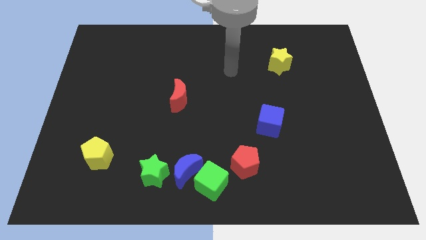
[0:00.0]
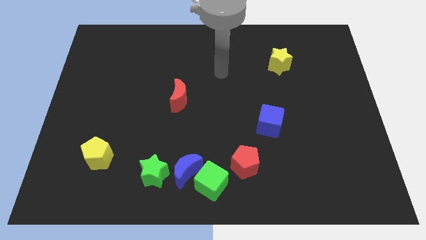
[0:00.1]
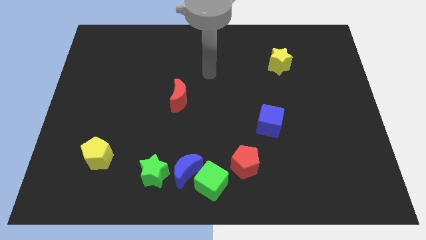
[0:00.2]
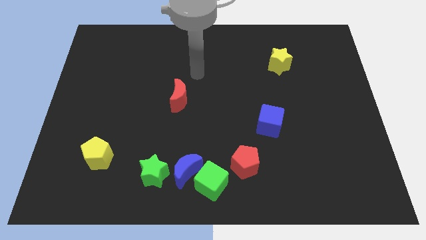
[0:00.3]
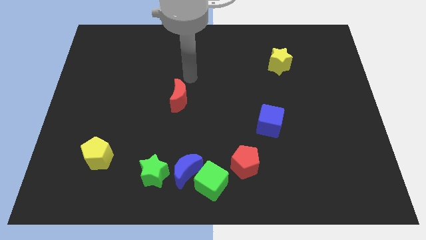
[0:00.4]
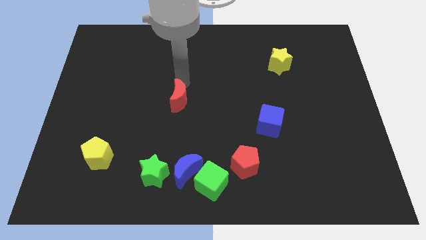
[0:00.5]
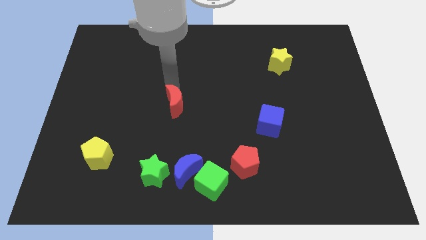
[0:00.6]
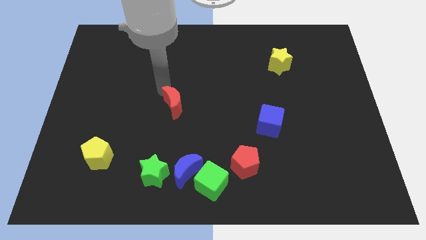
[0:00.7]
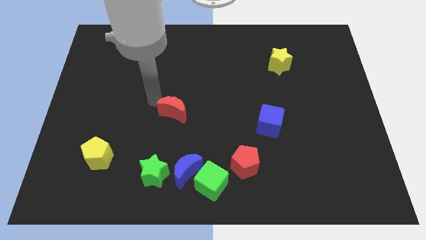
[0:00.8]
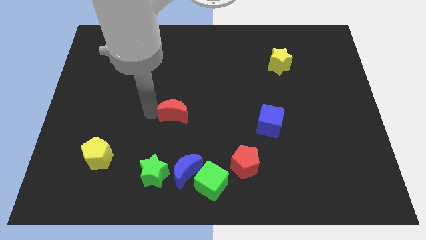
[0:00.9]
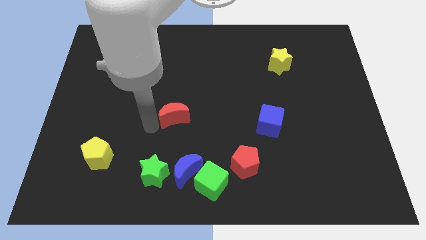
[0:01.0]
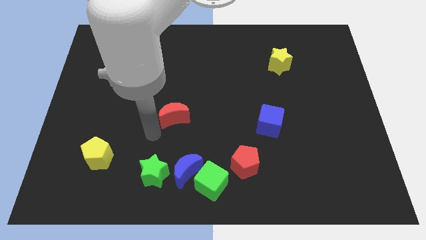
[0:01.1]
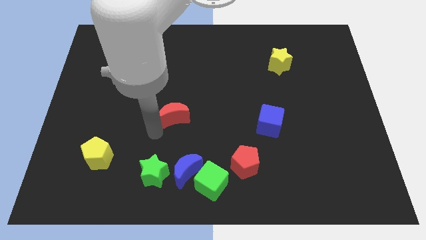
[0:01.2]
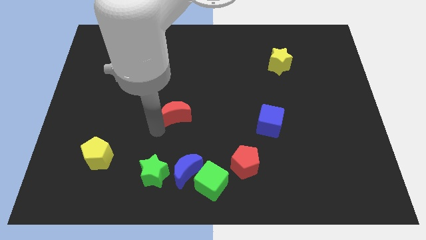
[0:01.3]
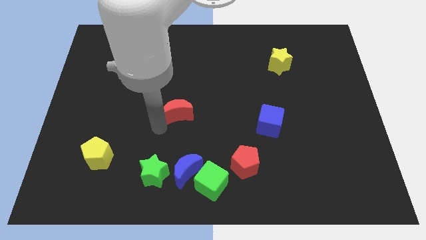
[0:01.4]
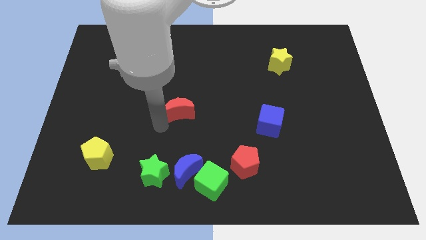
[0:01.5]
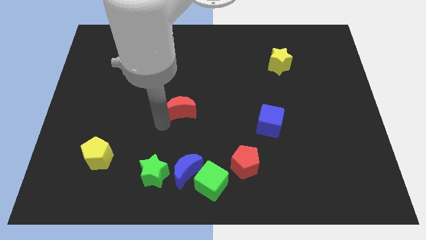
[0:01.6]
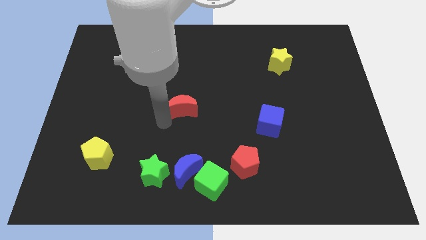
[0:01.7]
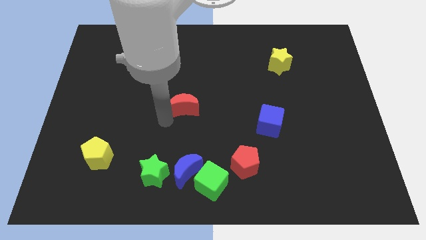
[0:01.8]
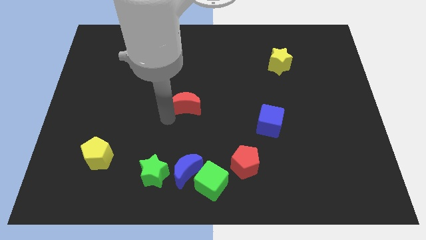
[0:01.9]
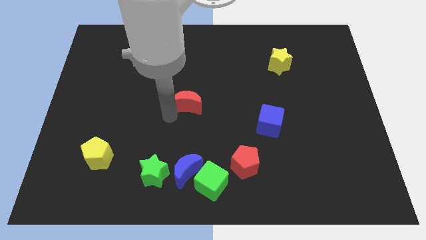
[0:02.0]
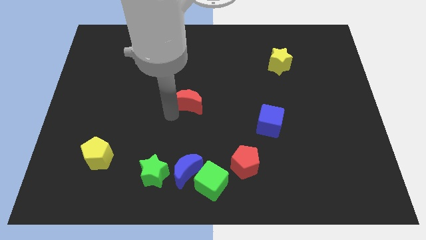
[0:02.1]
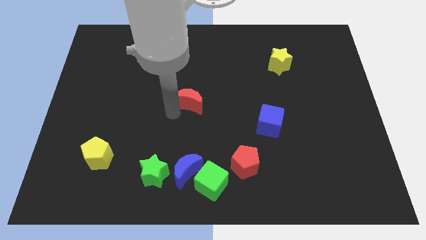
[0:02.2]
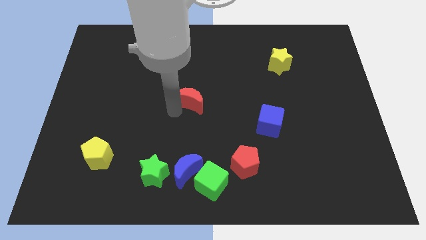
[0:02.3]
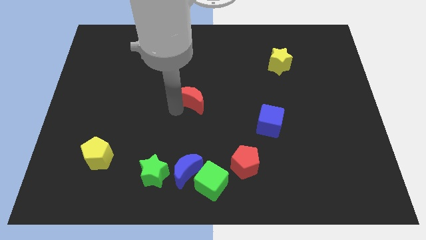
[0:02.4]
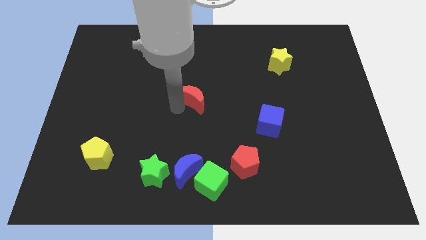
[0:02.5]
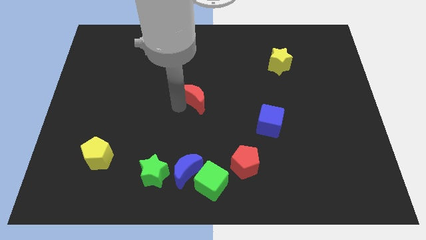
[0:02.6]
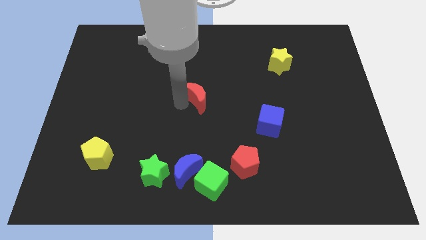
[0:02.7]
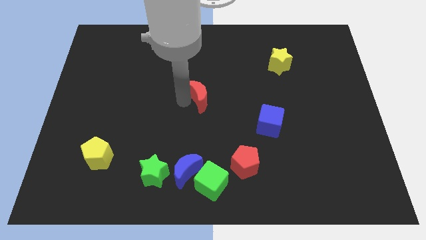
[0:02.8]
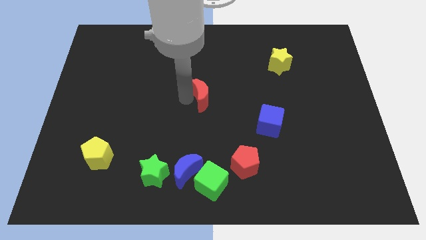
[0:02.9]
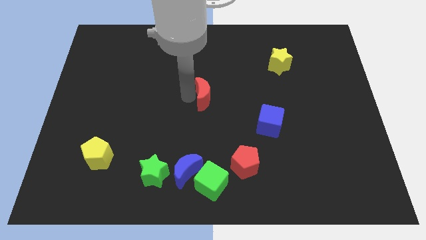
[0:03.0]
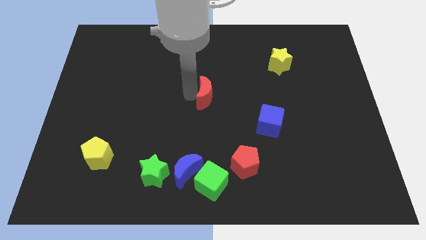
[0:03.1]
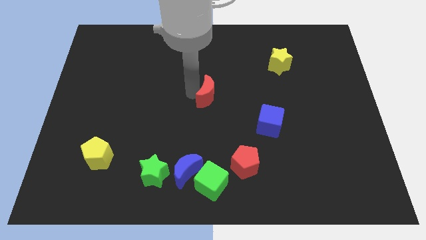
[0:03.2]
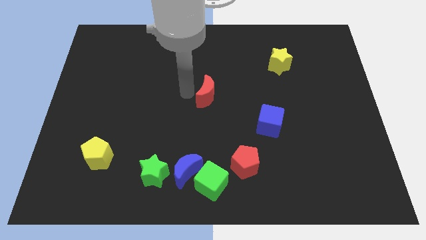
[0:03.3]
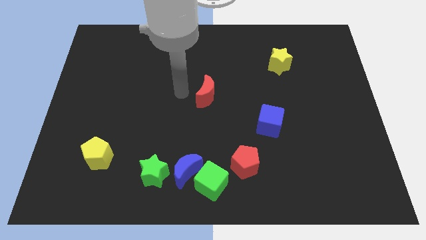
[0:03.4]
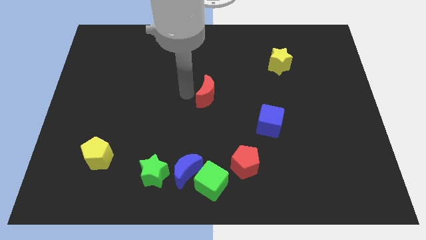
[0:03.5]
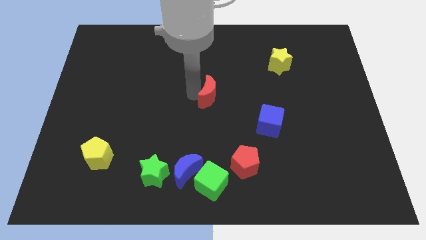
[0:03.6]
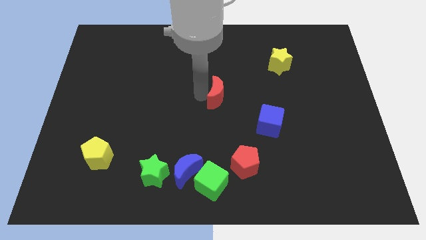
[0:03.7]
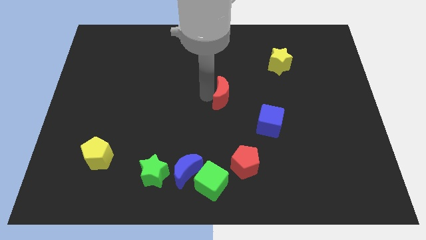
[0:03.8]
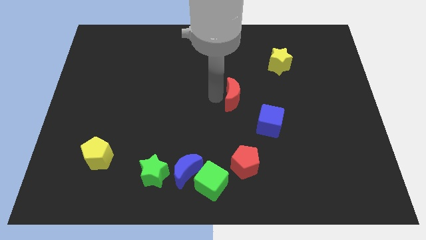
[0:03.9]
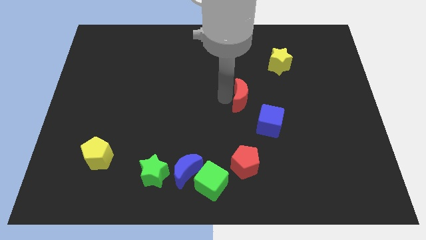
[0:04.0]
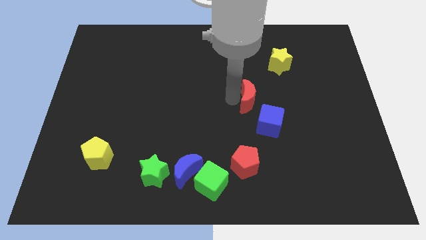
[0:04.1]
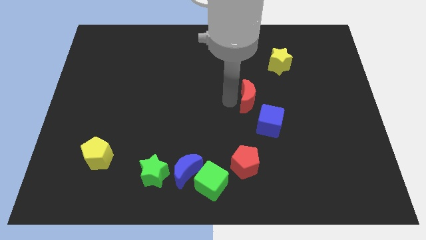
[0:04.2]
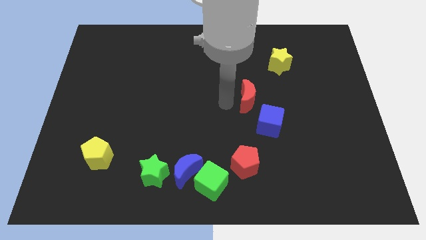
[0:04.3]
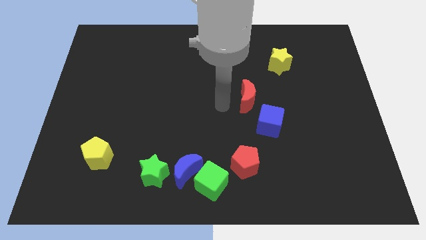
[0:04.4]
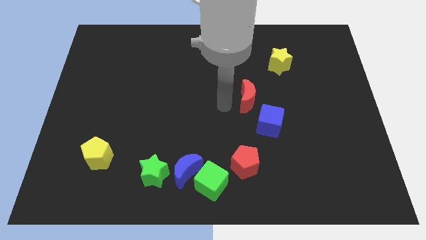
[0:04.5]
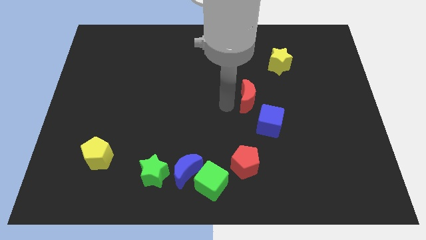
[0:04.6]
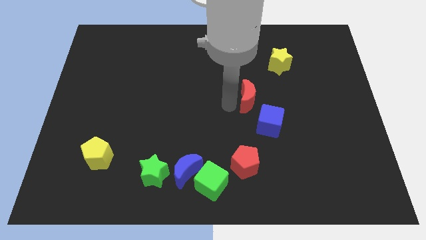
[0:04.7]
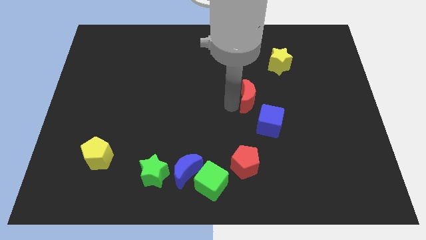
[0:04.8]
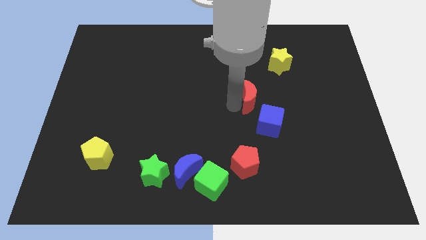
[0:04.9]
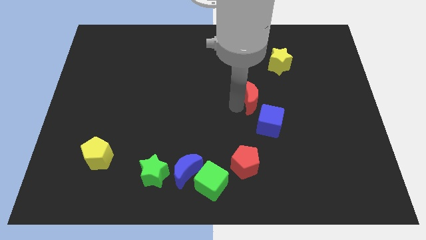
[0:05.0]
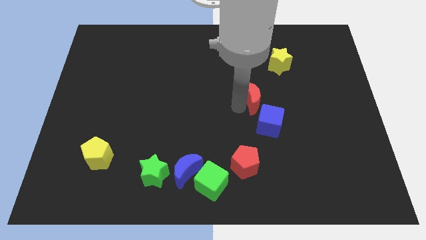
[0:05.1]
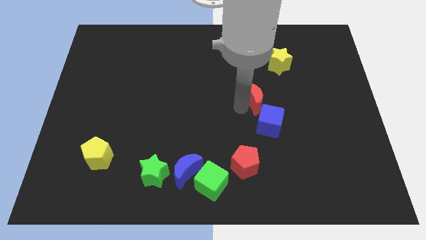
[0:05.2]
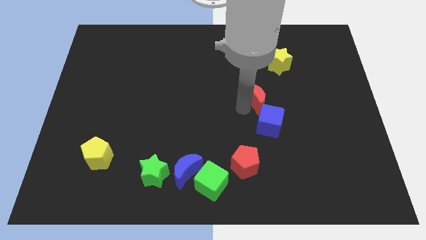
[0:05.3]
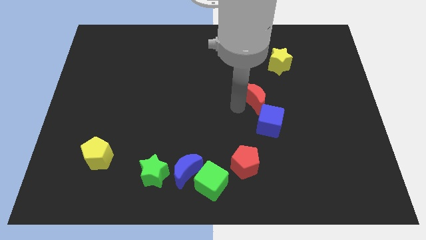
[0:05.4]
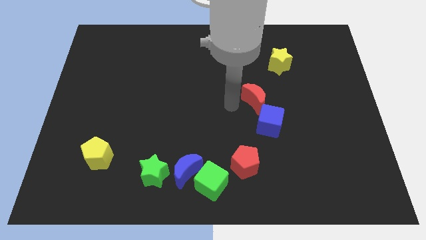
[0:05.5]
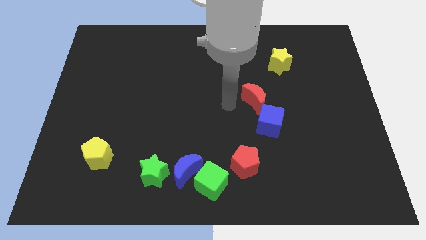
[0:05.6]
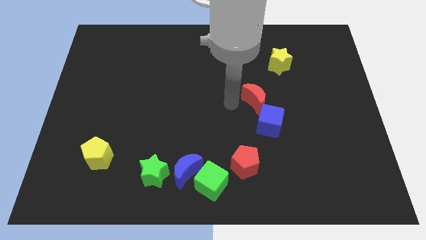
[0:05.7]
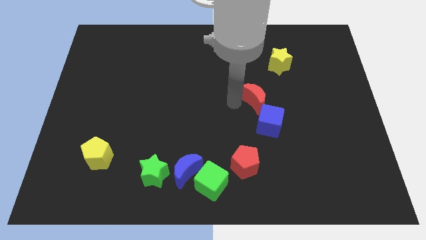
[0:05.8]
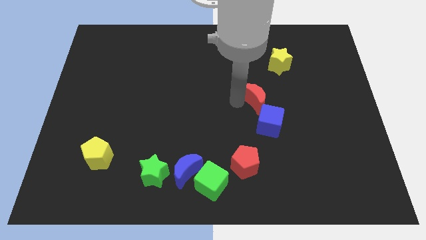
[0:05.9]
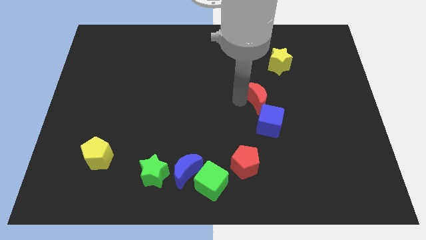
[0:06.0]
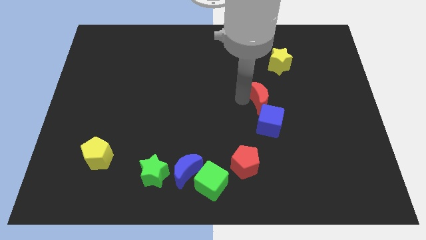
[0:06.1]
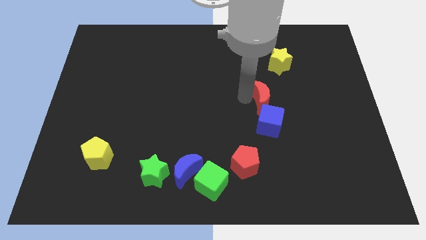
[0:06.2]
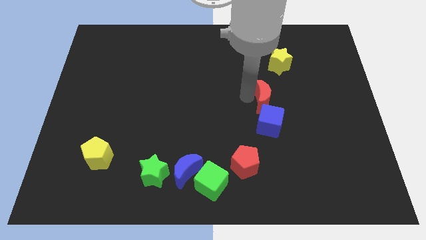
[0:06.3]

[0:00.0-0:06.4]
slide the red moon right

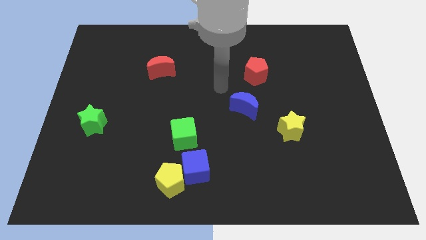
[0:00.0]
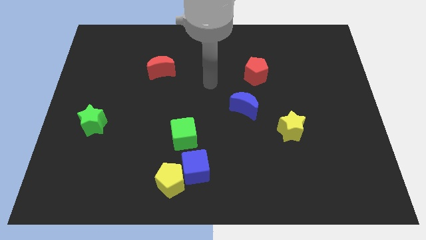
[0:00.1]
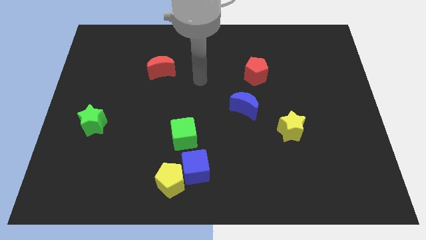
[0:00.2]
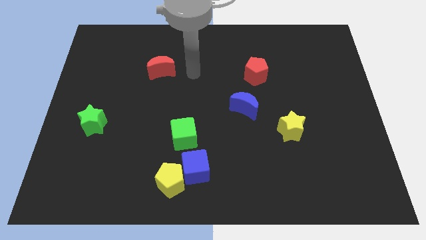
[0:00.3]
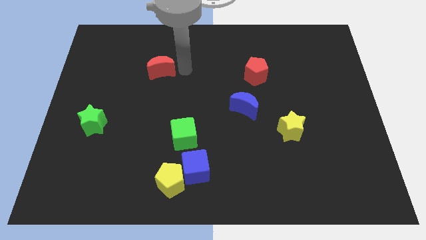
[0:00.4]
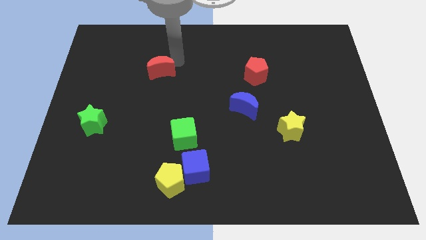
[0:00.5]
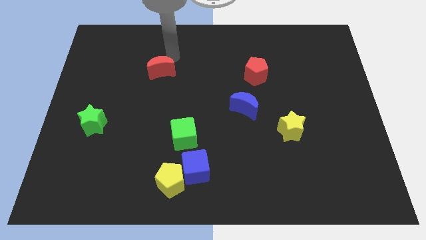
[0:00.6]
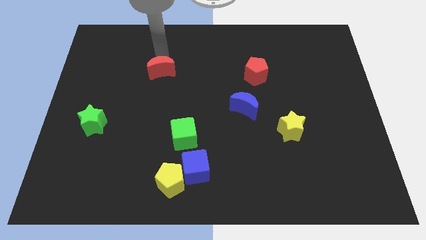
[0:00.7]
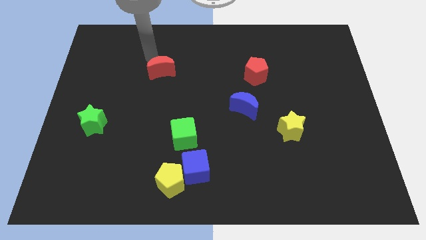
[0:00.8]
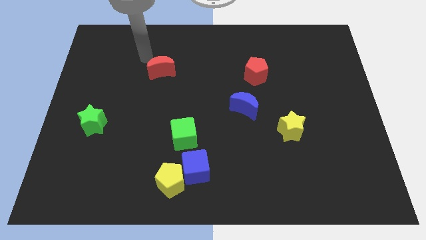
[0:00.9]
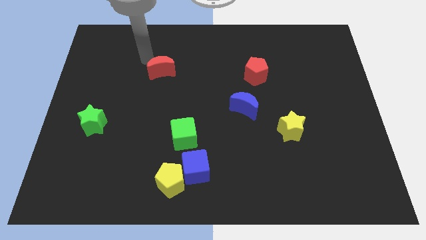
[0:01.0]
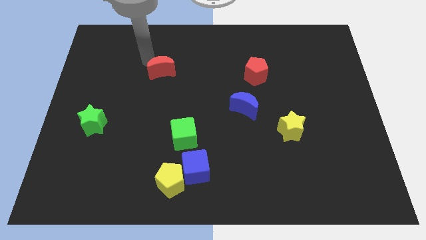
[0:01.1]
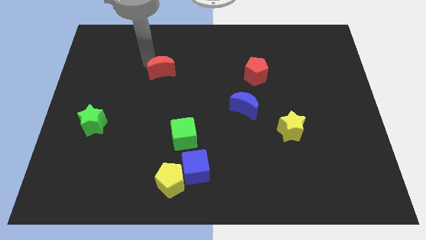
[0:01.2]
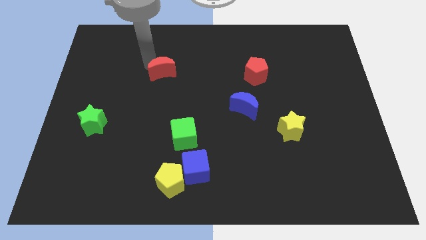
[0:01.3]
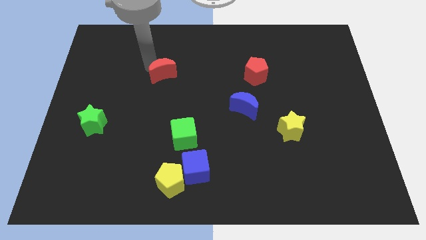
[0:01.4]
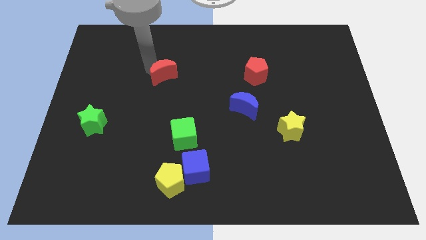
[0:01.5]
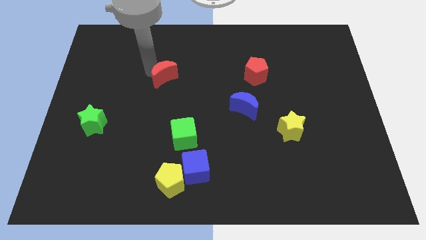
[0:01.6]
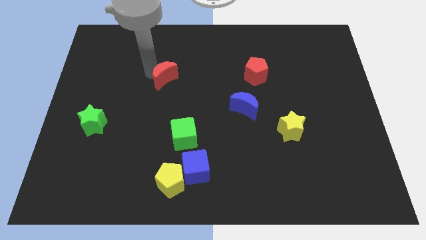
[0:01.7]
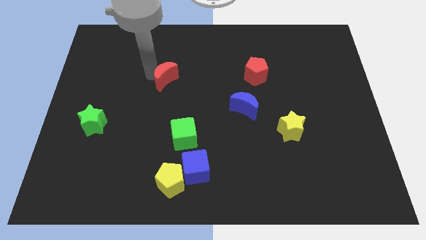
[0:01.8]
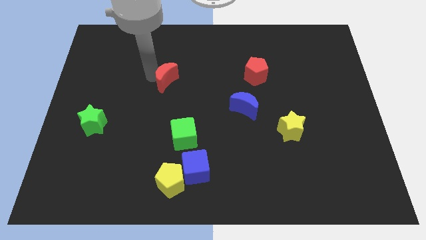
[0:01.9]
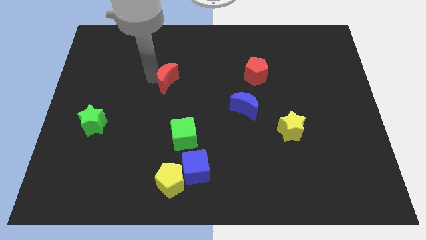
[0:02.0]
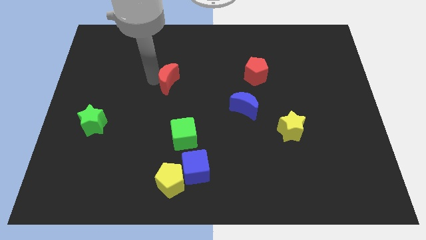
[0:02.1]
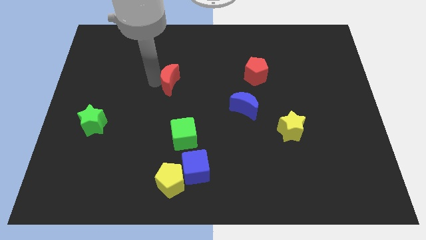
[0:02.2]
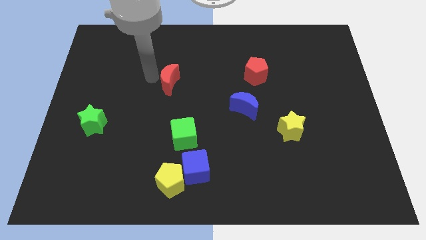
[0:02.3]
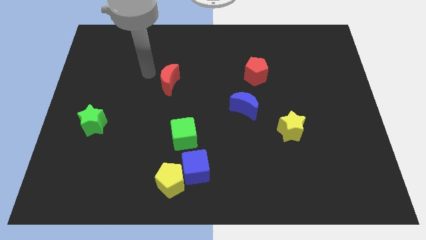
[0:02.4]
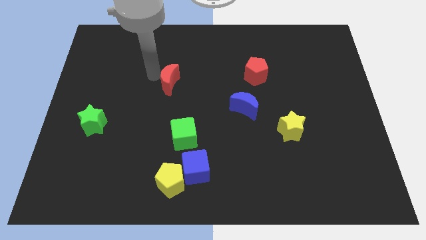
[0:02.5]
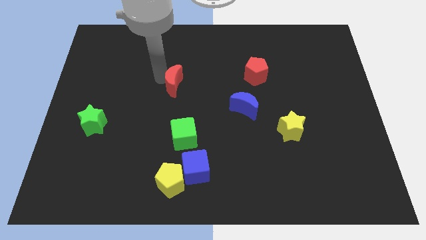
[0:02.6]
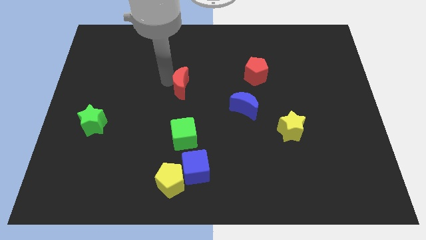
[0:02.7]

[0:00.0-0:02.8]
slightly move the red moon diagonally down and right
